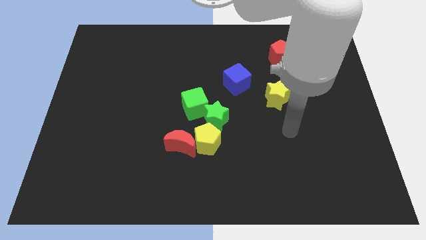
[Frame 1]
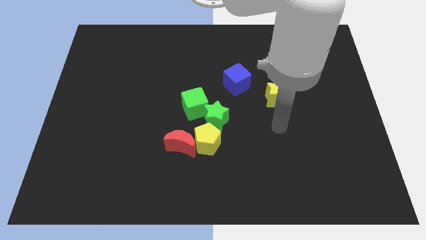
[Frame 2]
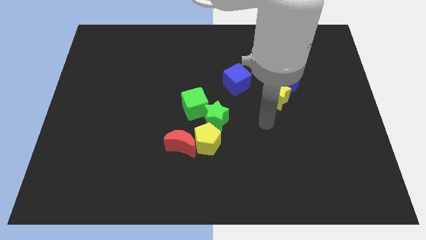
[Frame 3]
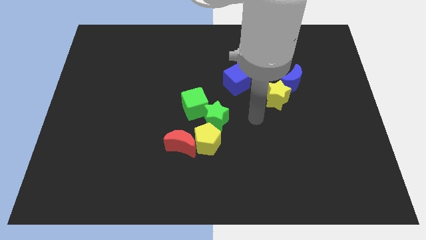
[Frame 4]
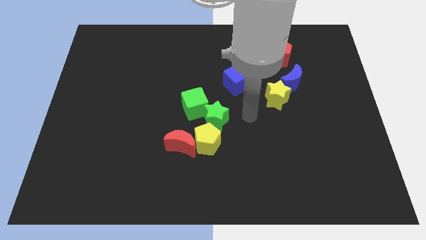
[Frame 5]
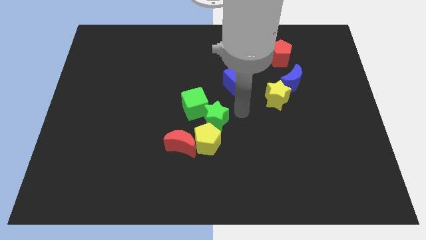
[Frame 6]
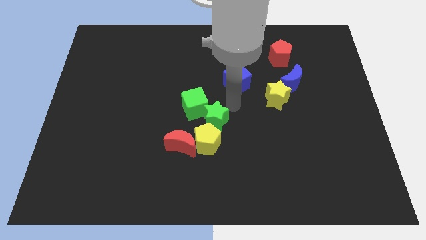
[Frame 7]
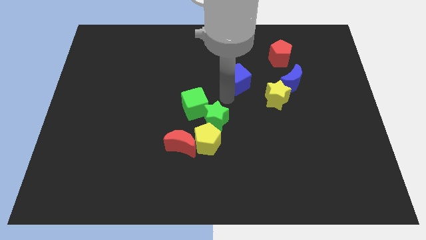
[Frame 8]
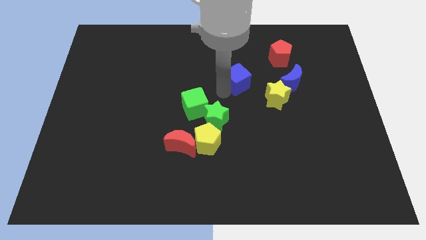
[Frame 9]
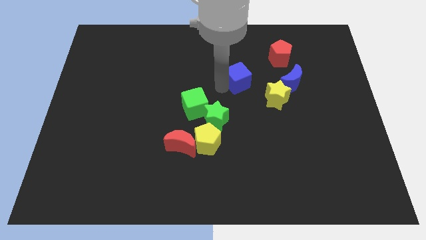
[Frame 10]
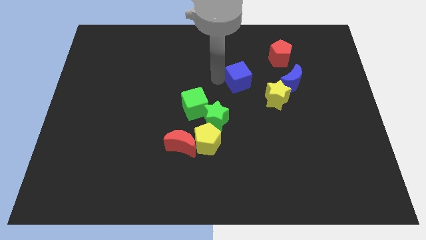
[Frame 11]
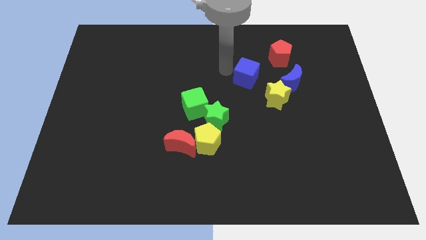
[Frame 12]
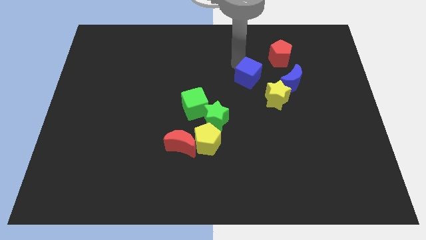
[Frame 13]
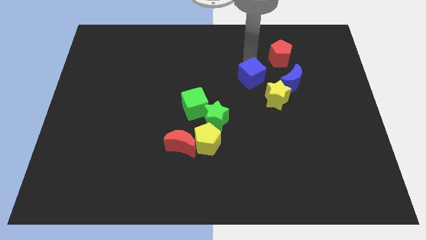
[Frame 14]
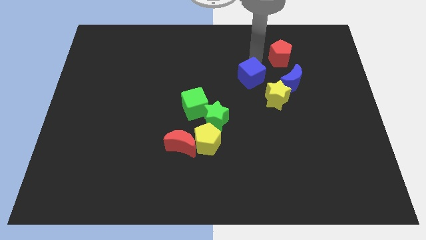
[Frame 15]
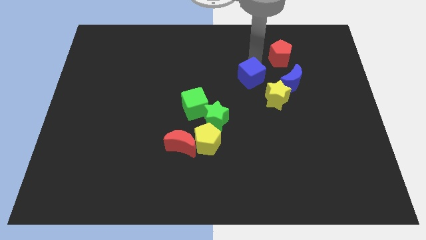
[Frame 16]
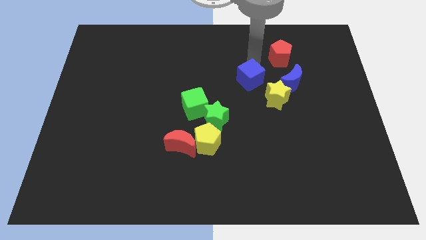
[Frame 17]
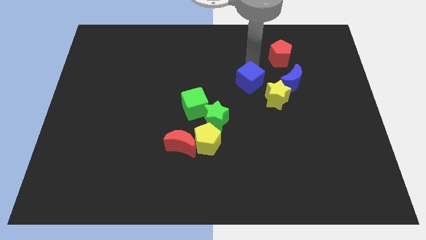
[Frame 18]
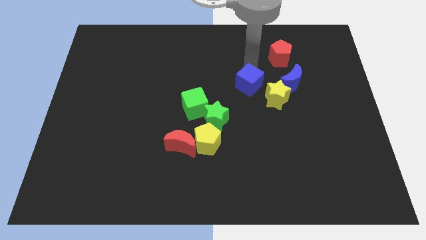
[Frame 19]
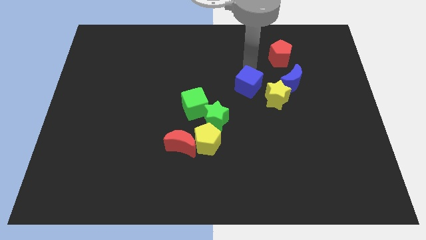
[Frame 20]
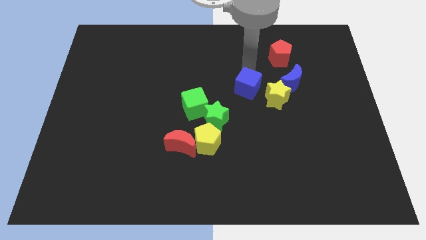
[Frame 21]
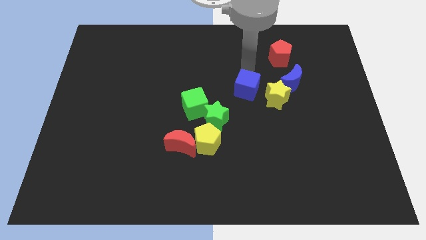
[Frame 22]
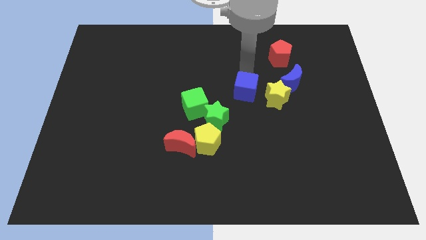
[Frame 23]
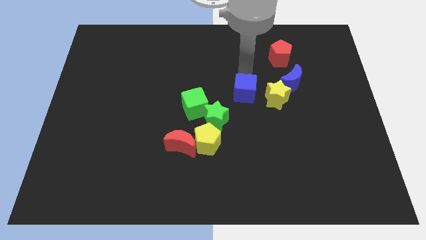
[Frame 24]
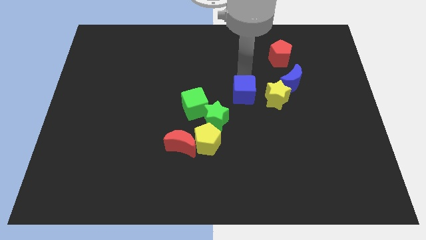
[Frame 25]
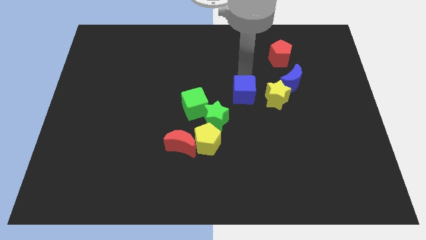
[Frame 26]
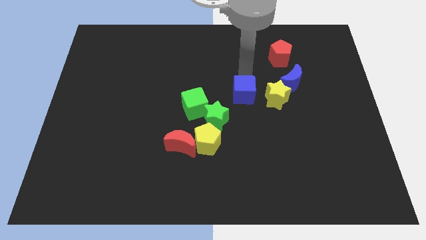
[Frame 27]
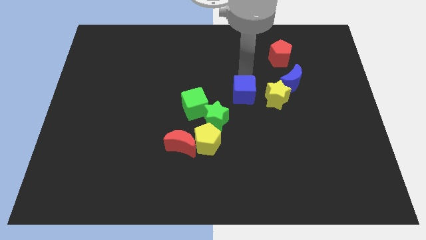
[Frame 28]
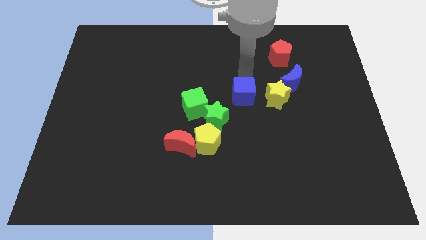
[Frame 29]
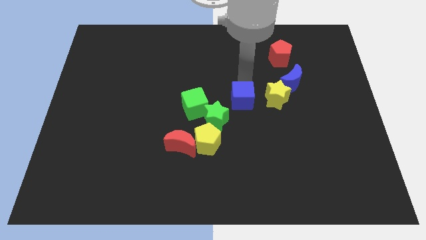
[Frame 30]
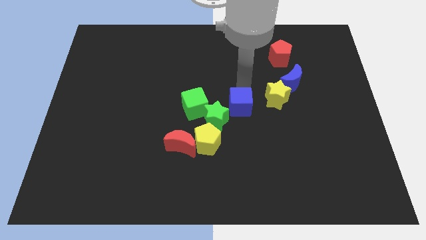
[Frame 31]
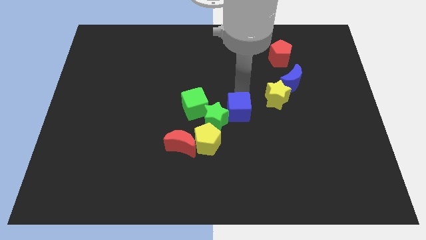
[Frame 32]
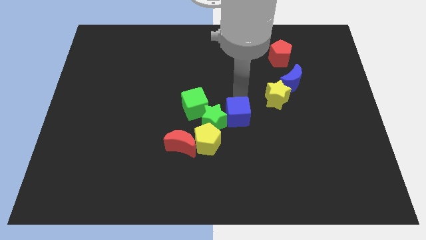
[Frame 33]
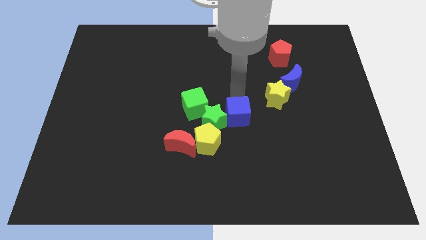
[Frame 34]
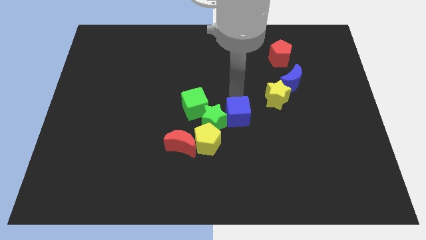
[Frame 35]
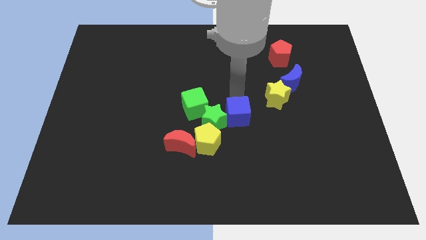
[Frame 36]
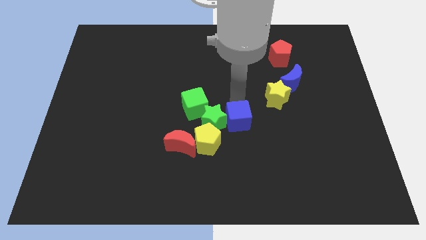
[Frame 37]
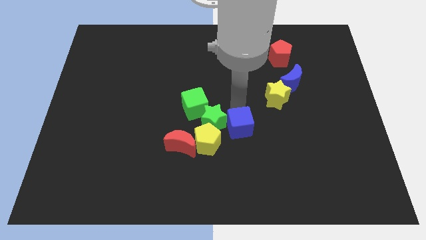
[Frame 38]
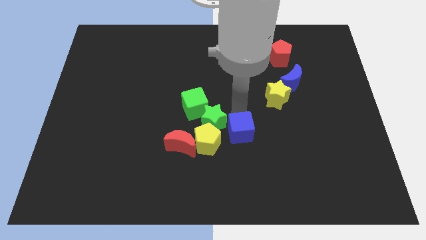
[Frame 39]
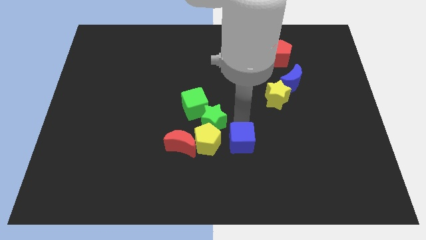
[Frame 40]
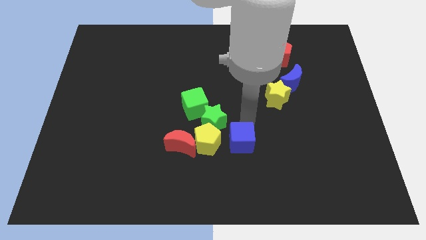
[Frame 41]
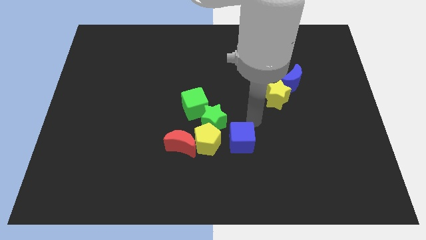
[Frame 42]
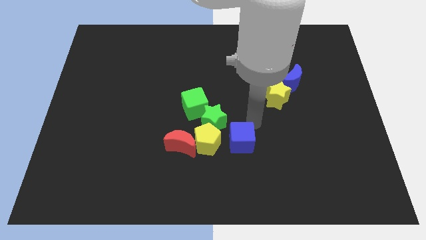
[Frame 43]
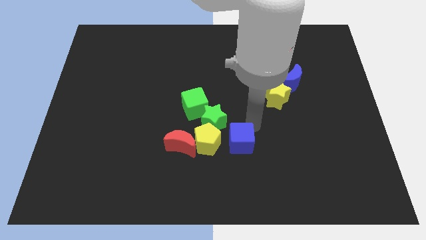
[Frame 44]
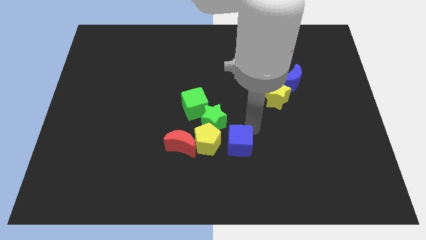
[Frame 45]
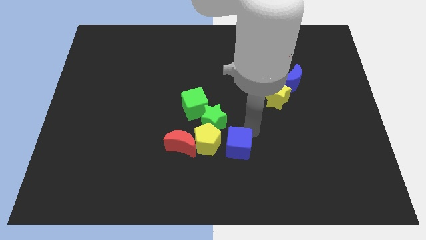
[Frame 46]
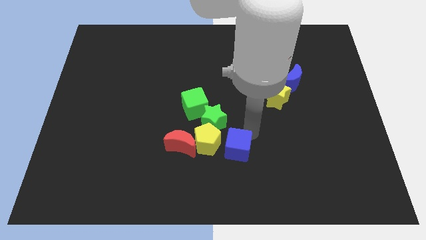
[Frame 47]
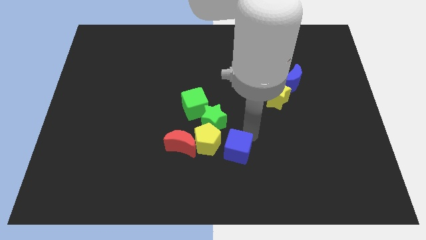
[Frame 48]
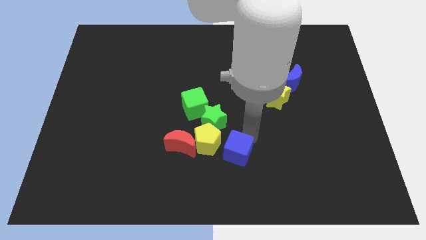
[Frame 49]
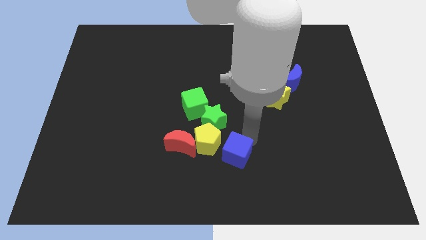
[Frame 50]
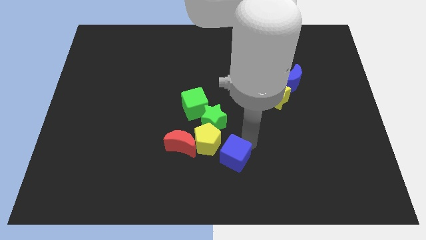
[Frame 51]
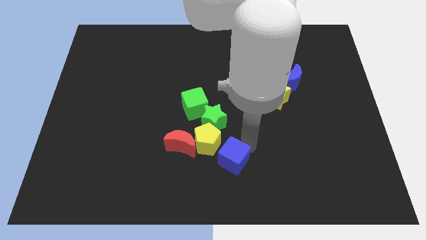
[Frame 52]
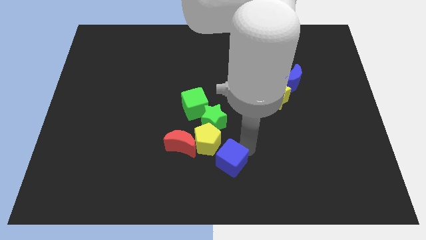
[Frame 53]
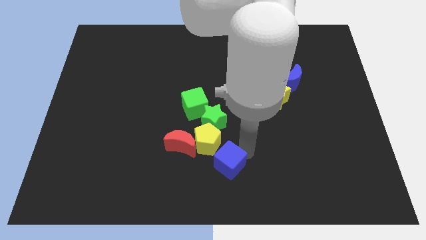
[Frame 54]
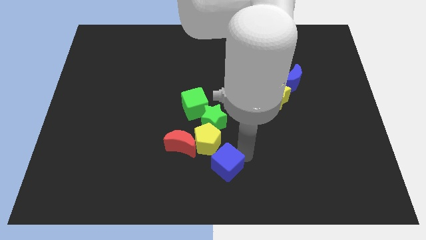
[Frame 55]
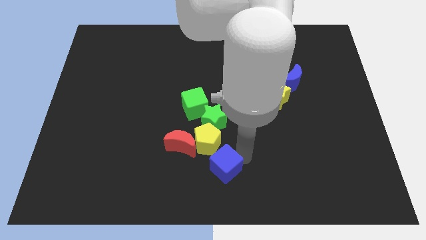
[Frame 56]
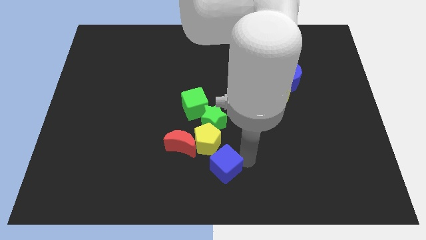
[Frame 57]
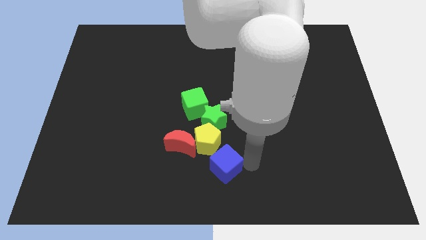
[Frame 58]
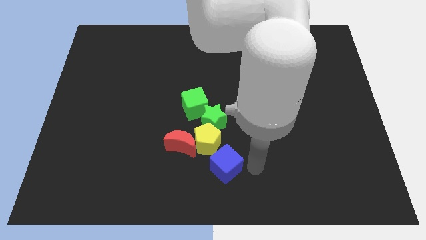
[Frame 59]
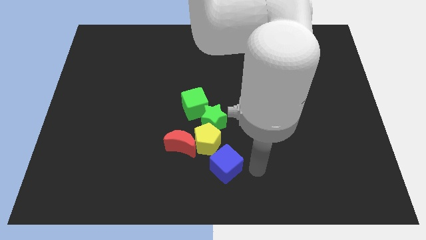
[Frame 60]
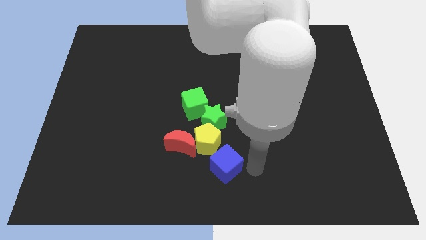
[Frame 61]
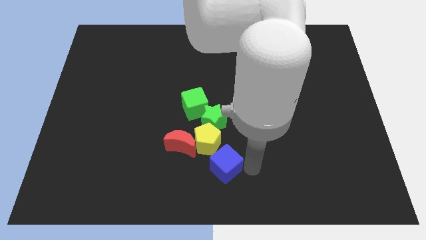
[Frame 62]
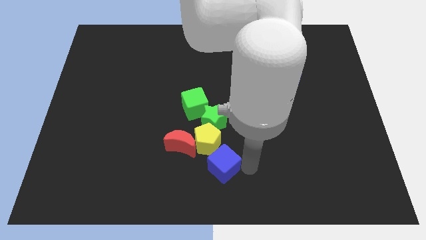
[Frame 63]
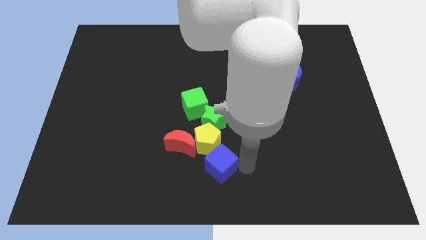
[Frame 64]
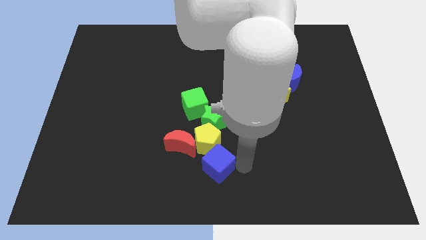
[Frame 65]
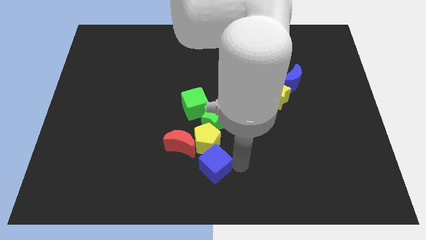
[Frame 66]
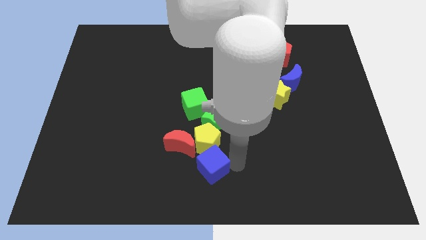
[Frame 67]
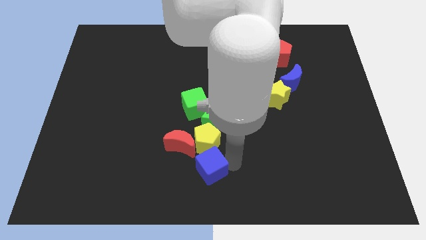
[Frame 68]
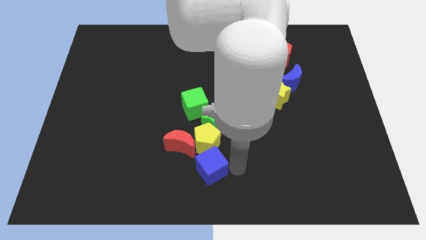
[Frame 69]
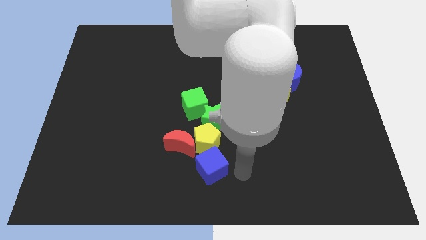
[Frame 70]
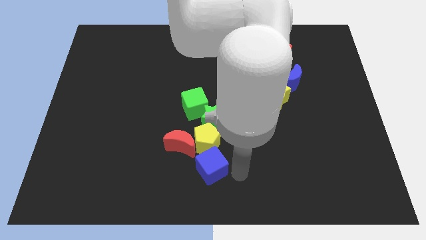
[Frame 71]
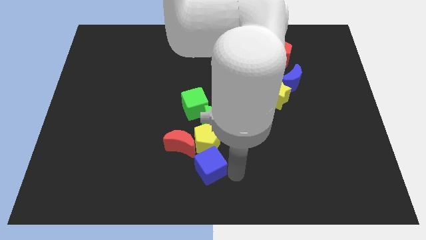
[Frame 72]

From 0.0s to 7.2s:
move the blue cube to the bottom left side of the yellow pentagon
